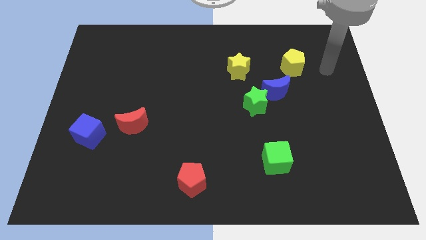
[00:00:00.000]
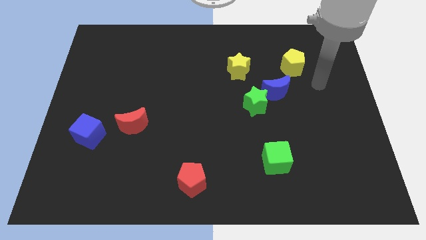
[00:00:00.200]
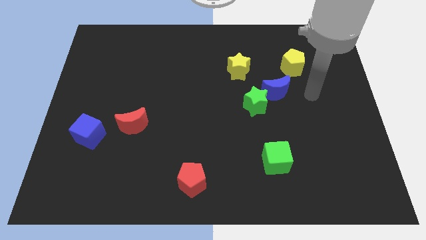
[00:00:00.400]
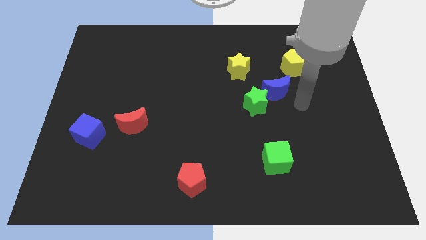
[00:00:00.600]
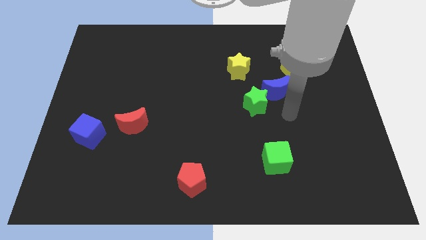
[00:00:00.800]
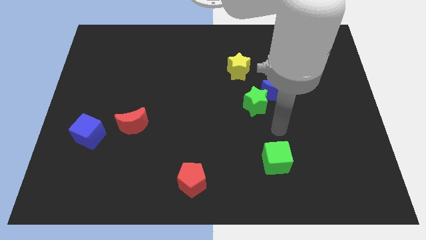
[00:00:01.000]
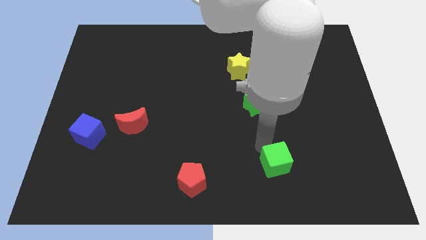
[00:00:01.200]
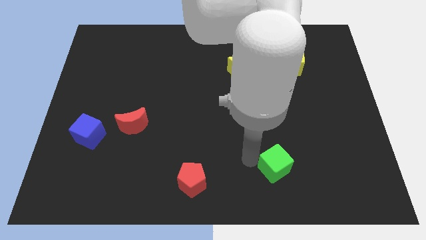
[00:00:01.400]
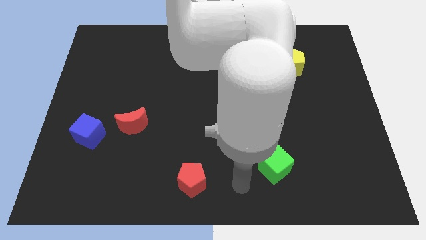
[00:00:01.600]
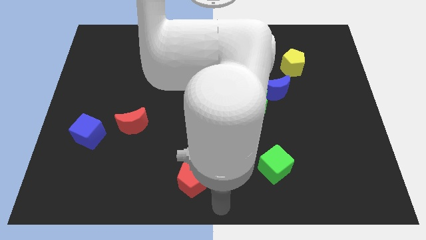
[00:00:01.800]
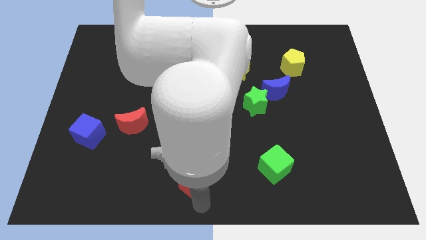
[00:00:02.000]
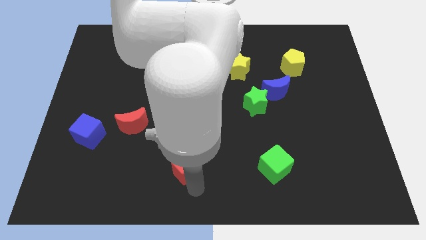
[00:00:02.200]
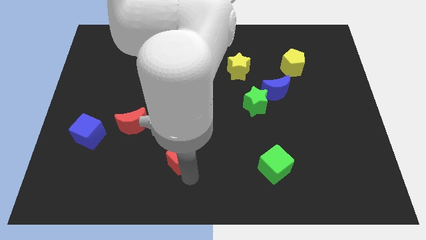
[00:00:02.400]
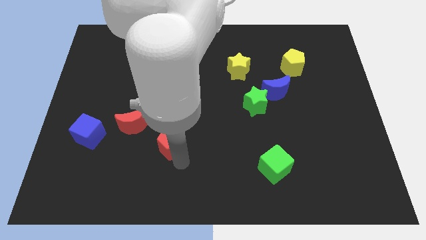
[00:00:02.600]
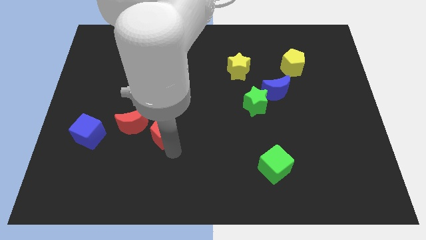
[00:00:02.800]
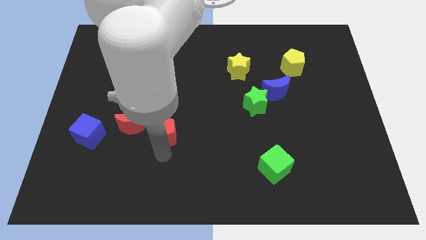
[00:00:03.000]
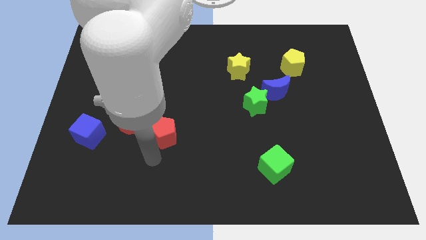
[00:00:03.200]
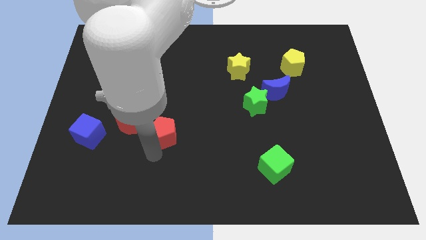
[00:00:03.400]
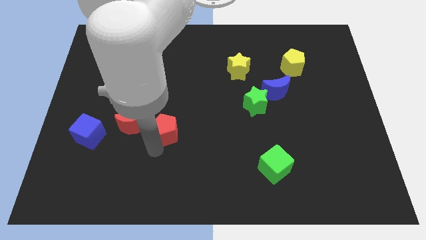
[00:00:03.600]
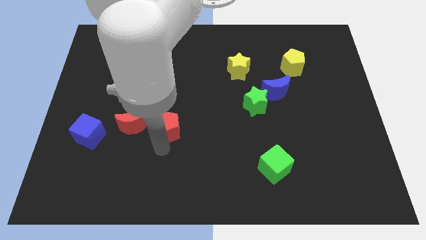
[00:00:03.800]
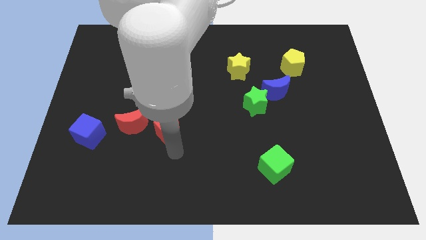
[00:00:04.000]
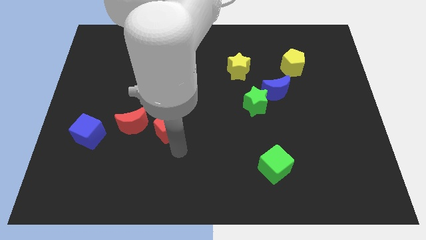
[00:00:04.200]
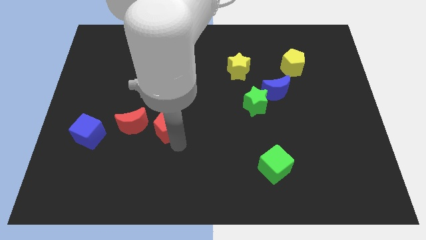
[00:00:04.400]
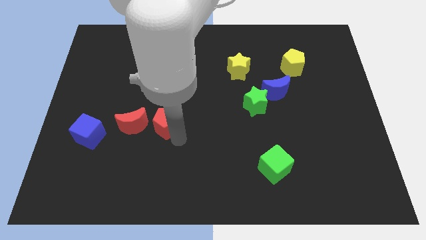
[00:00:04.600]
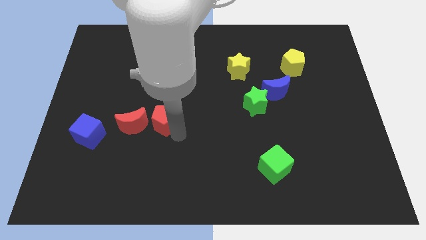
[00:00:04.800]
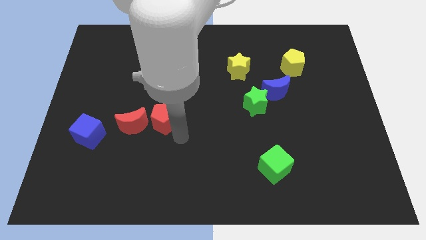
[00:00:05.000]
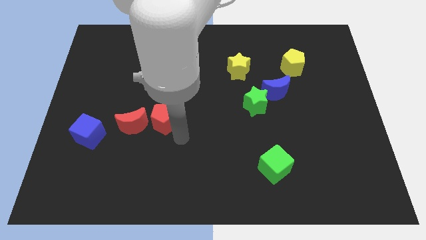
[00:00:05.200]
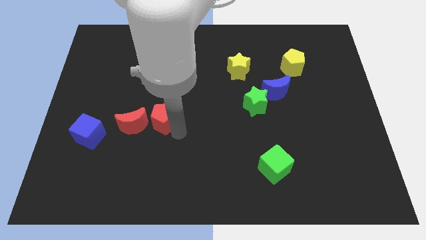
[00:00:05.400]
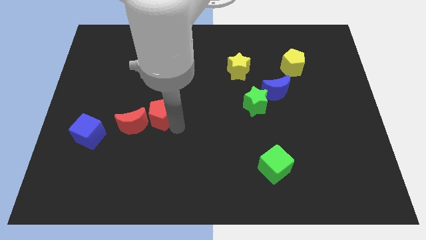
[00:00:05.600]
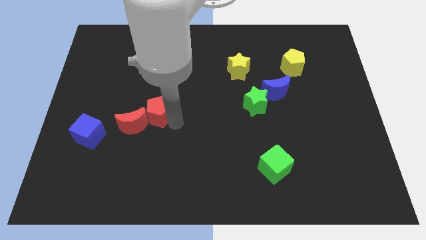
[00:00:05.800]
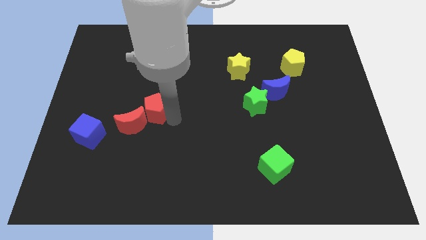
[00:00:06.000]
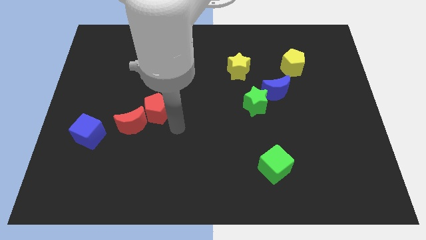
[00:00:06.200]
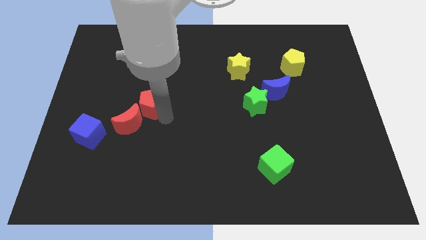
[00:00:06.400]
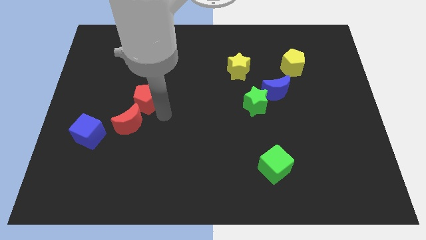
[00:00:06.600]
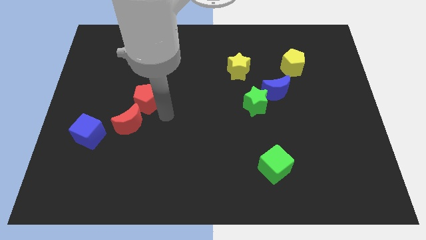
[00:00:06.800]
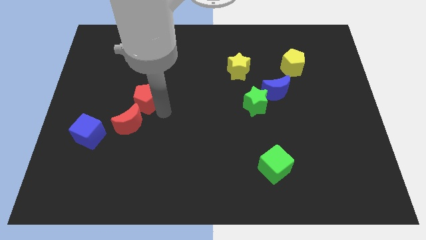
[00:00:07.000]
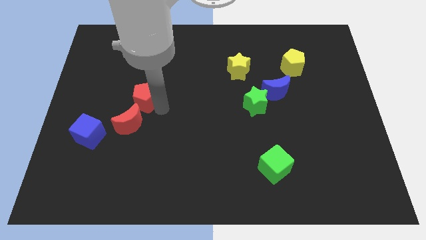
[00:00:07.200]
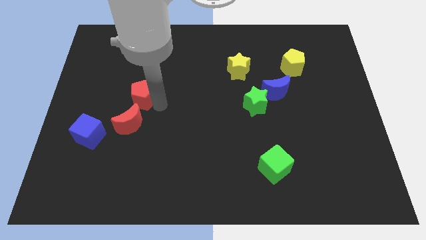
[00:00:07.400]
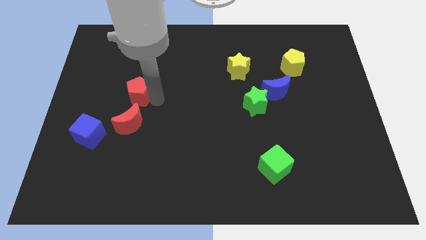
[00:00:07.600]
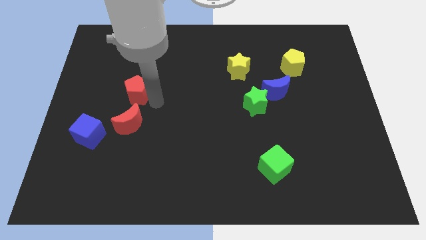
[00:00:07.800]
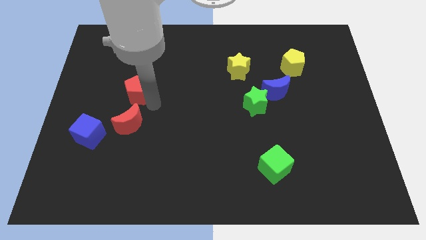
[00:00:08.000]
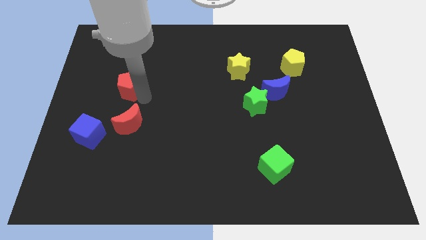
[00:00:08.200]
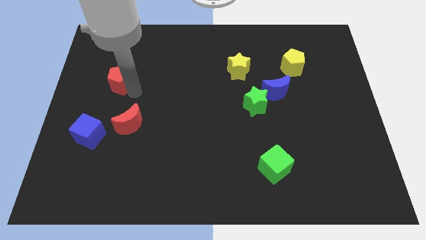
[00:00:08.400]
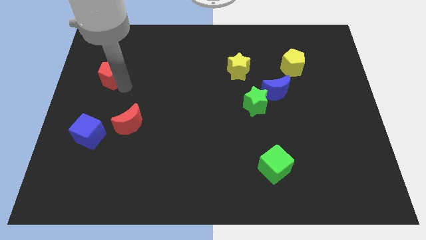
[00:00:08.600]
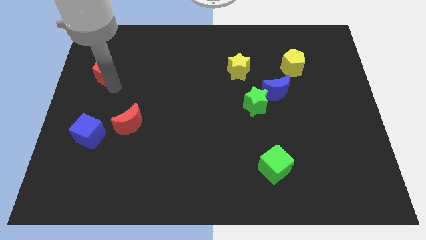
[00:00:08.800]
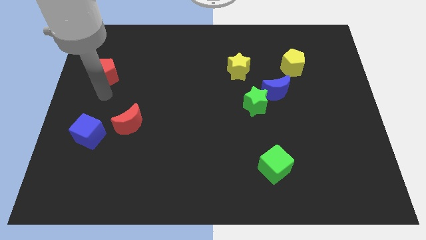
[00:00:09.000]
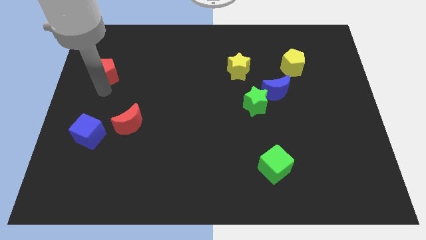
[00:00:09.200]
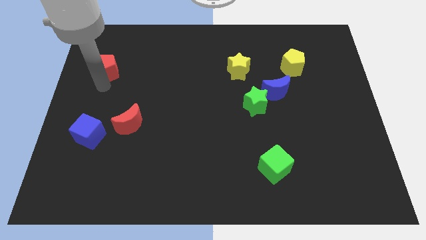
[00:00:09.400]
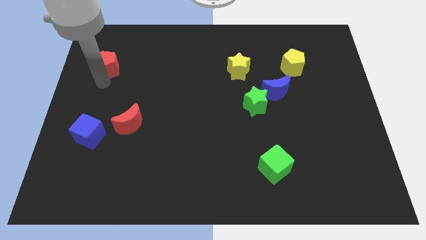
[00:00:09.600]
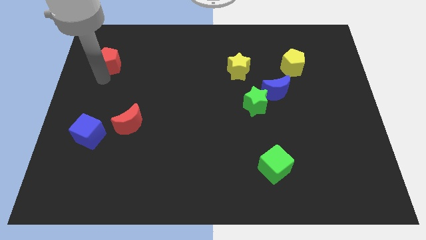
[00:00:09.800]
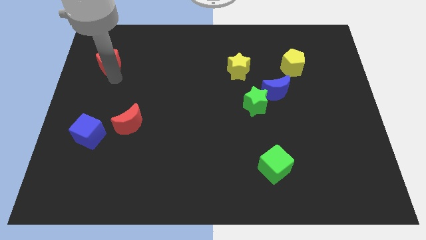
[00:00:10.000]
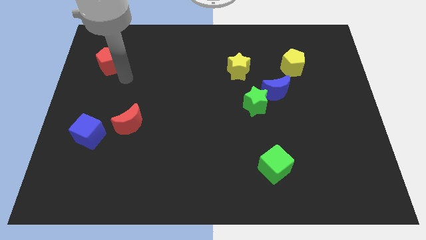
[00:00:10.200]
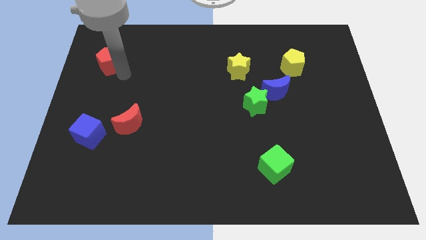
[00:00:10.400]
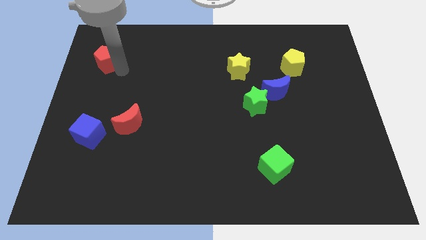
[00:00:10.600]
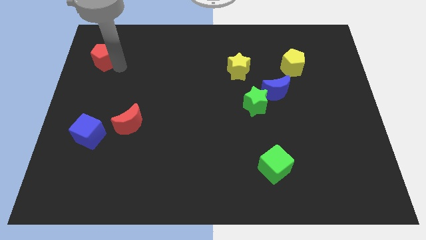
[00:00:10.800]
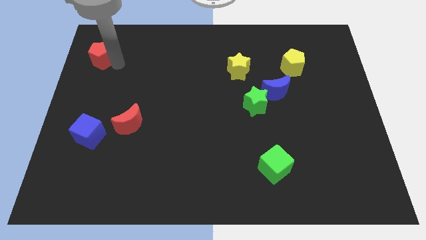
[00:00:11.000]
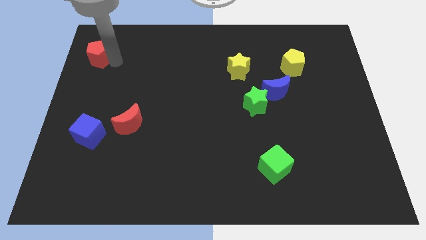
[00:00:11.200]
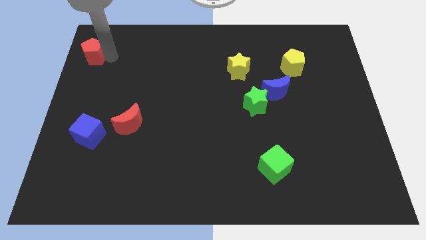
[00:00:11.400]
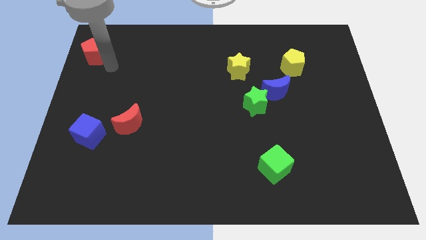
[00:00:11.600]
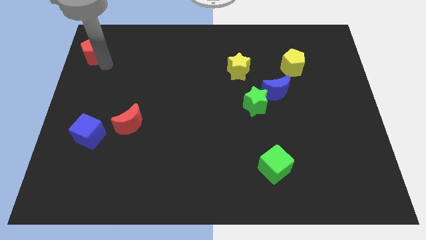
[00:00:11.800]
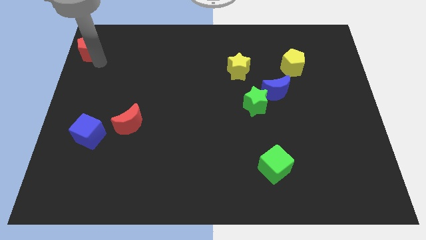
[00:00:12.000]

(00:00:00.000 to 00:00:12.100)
push the red pentagon to the upper left corner
